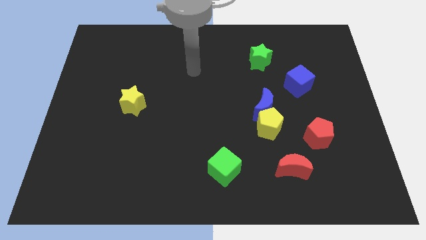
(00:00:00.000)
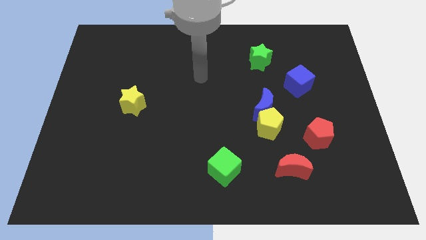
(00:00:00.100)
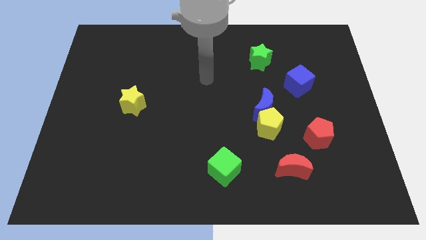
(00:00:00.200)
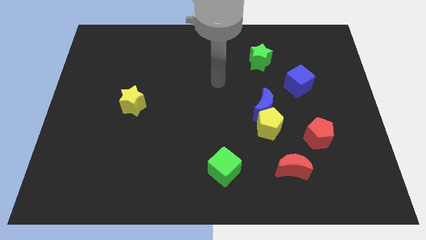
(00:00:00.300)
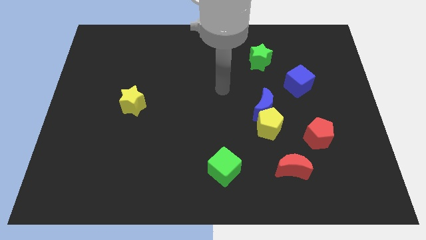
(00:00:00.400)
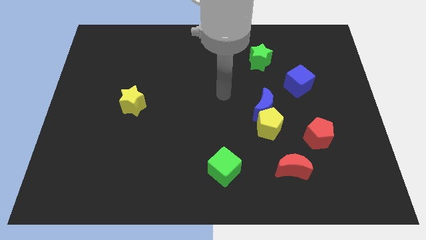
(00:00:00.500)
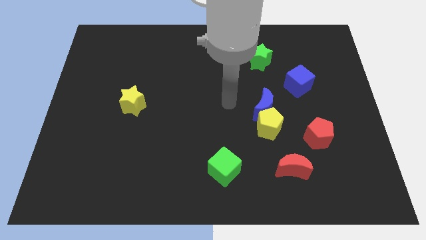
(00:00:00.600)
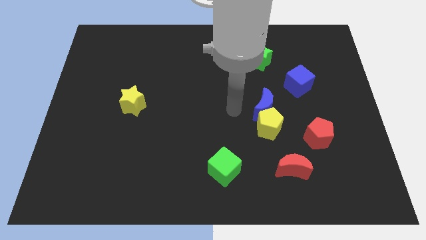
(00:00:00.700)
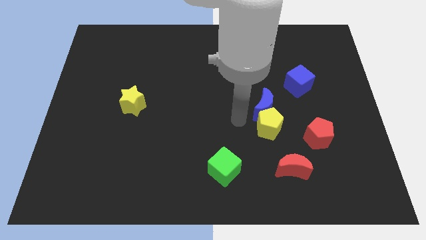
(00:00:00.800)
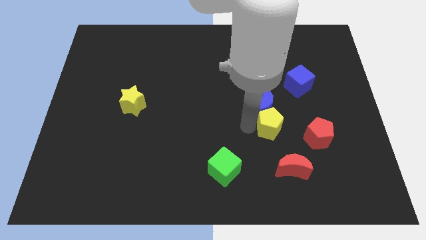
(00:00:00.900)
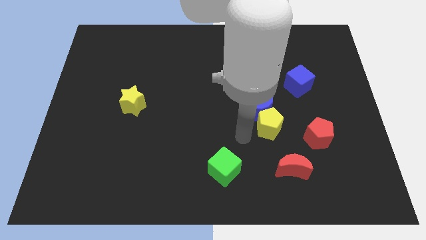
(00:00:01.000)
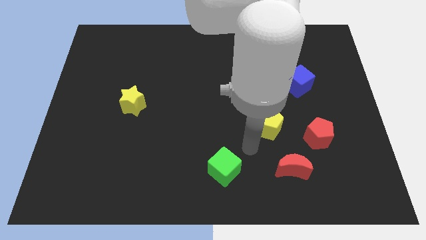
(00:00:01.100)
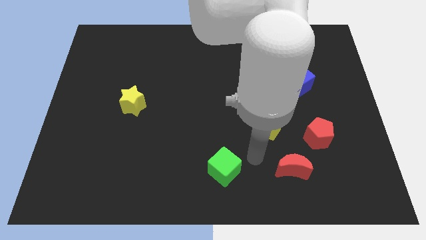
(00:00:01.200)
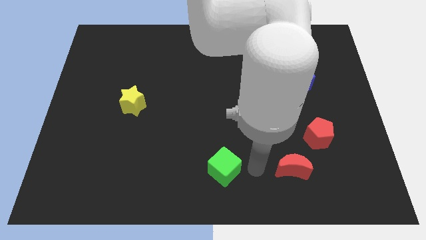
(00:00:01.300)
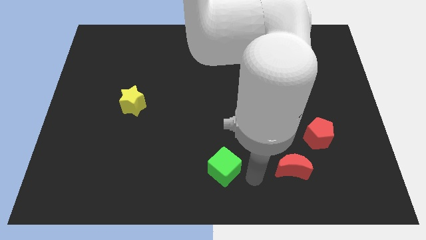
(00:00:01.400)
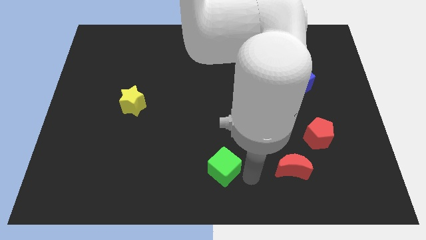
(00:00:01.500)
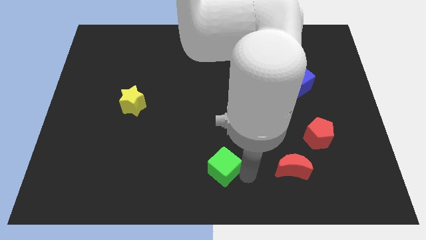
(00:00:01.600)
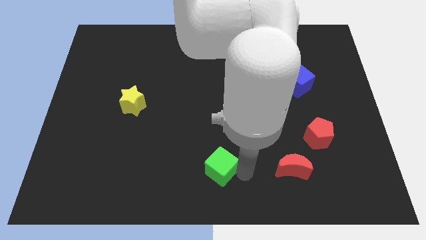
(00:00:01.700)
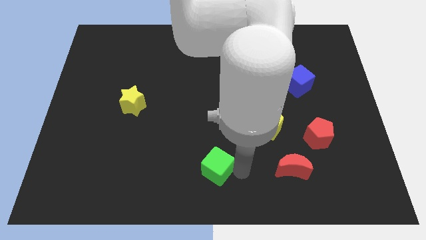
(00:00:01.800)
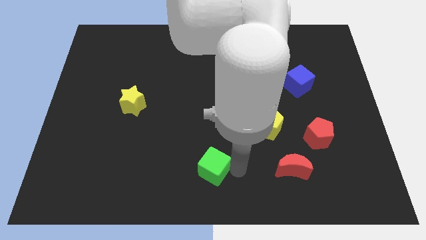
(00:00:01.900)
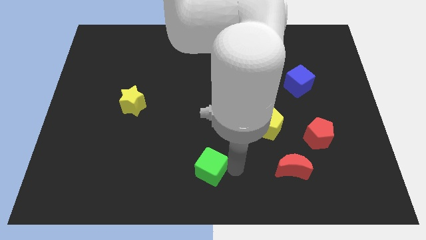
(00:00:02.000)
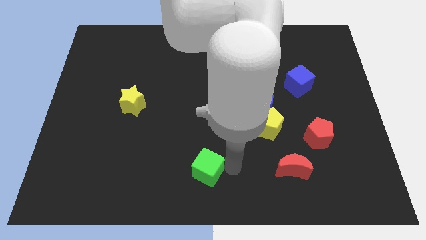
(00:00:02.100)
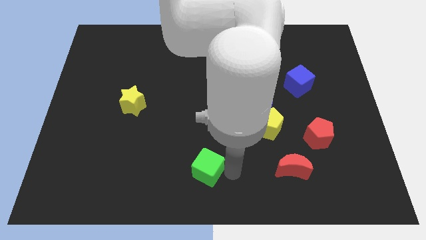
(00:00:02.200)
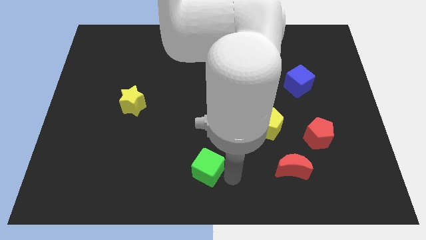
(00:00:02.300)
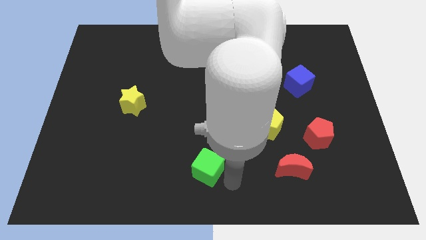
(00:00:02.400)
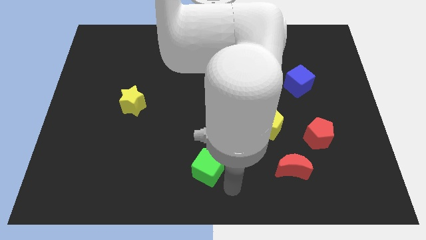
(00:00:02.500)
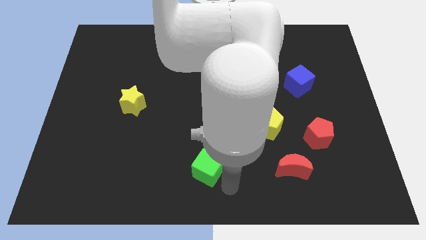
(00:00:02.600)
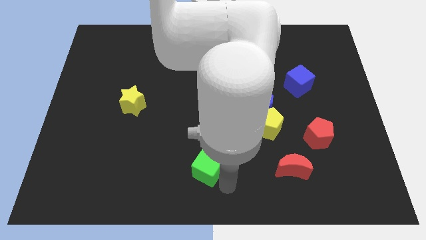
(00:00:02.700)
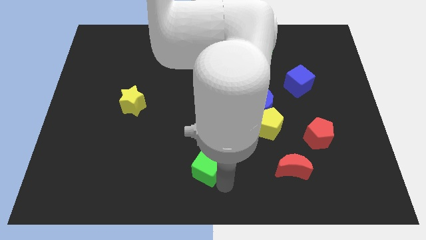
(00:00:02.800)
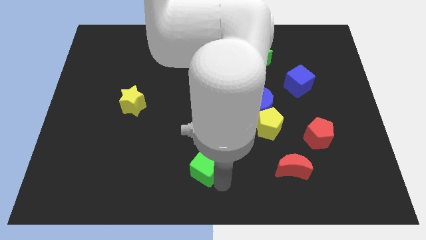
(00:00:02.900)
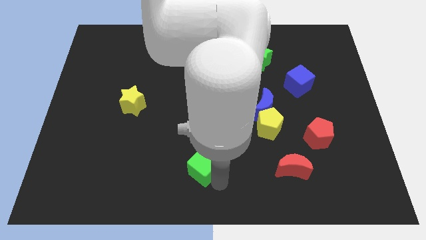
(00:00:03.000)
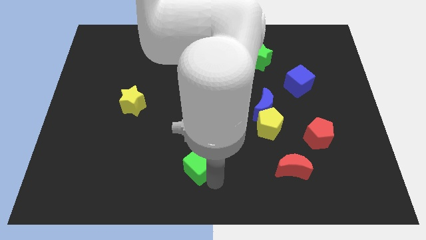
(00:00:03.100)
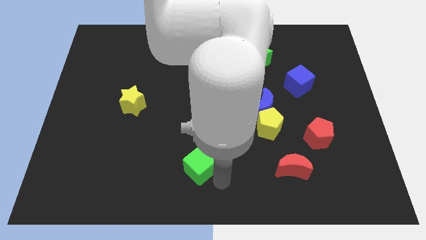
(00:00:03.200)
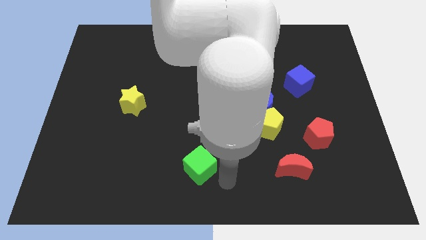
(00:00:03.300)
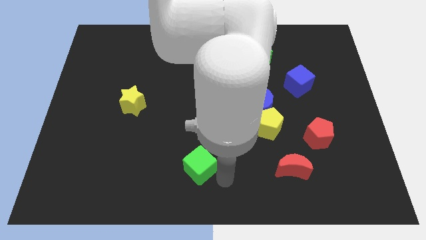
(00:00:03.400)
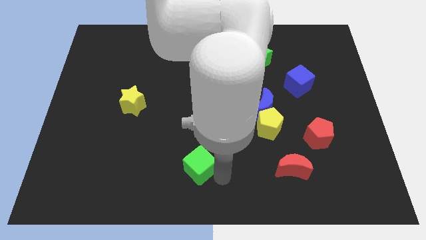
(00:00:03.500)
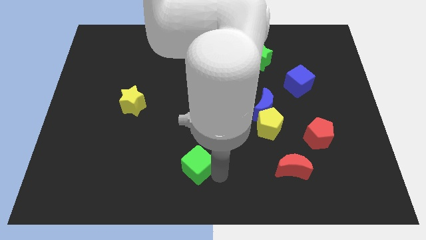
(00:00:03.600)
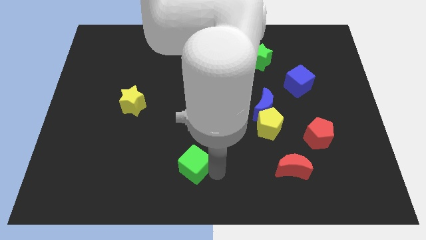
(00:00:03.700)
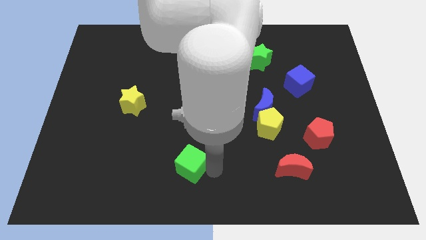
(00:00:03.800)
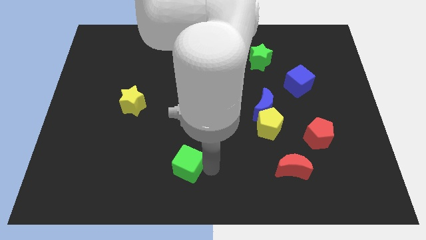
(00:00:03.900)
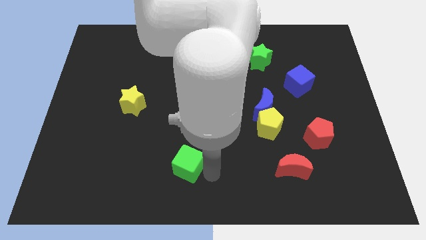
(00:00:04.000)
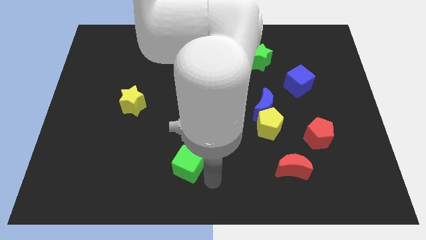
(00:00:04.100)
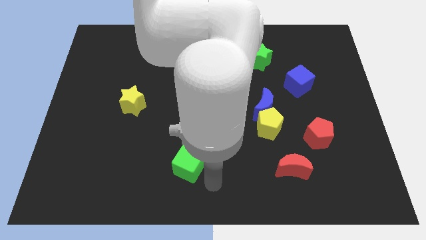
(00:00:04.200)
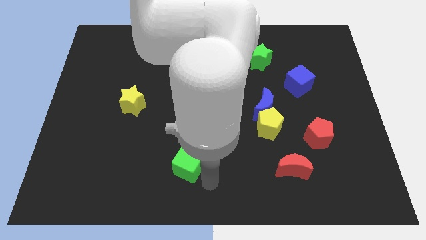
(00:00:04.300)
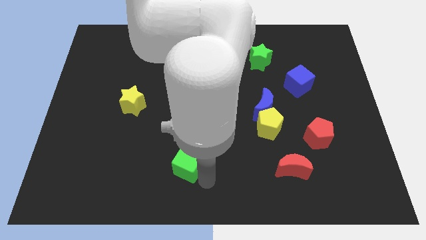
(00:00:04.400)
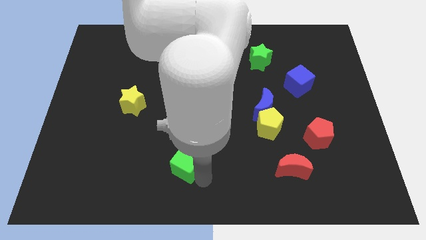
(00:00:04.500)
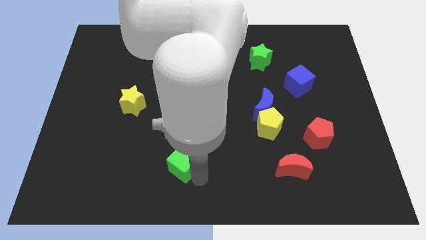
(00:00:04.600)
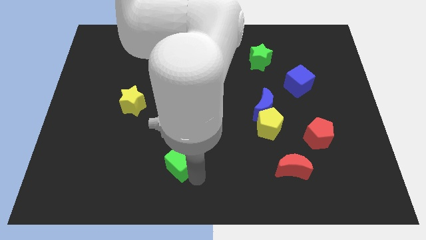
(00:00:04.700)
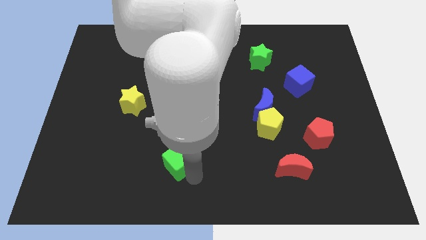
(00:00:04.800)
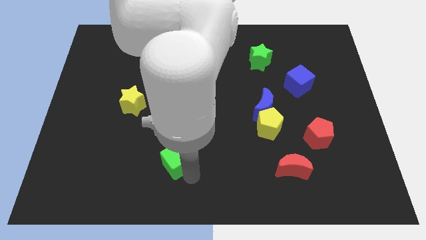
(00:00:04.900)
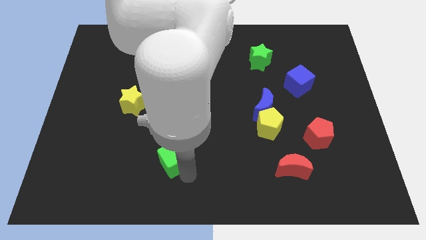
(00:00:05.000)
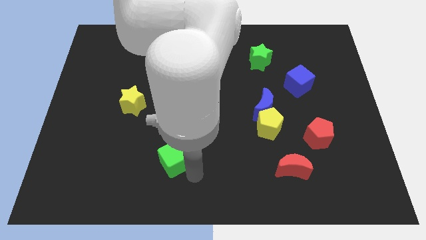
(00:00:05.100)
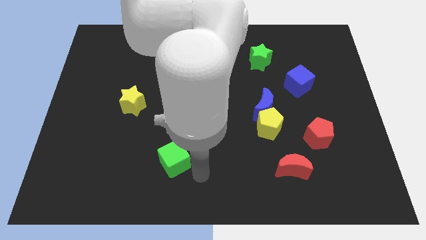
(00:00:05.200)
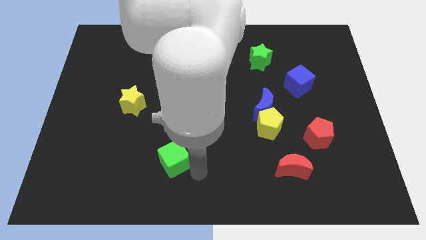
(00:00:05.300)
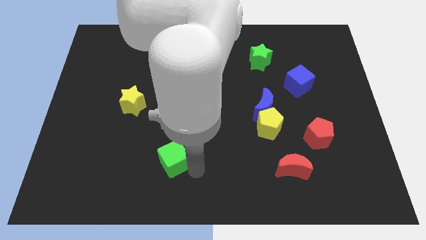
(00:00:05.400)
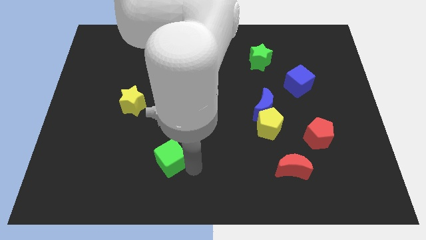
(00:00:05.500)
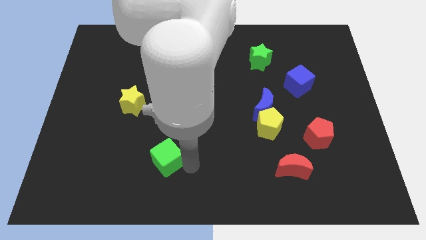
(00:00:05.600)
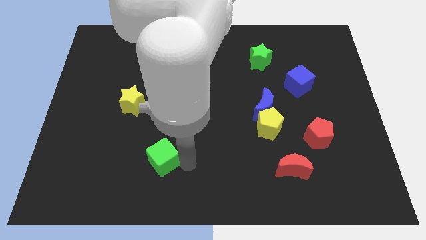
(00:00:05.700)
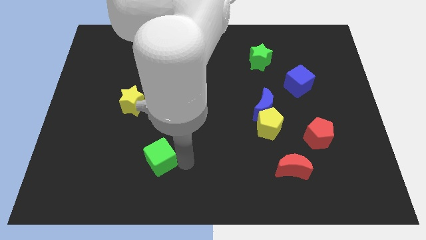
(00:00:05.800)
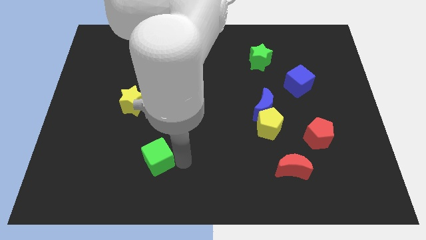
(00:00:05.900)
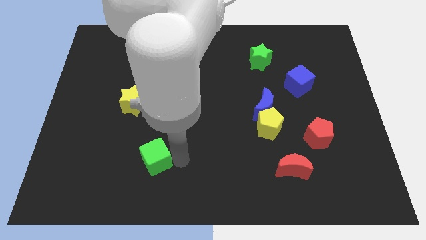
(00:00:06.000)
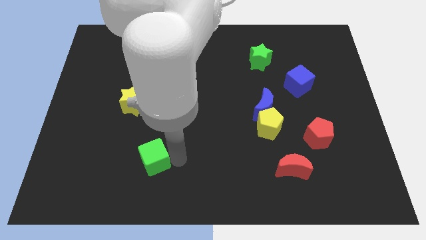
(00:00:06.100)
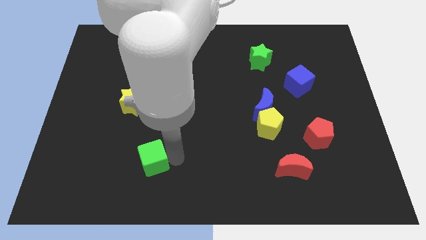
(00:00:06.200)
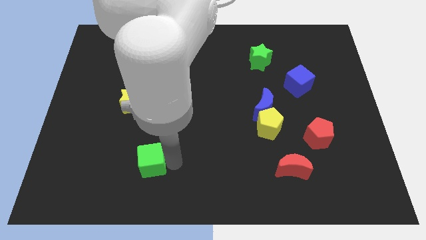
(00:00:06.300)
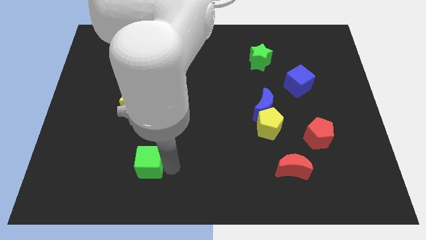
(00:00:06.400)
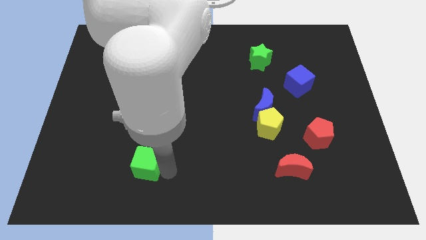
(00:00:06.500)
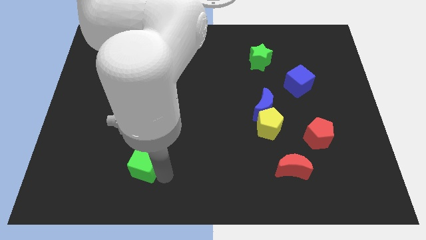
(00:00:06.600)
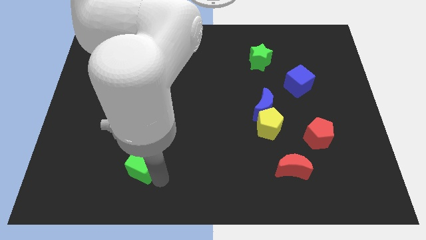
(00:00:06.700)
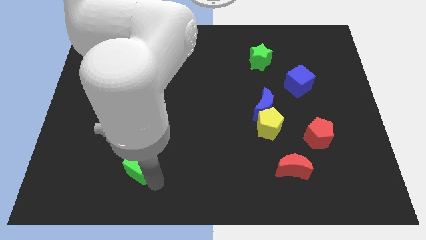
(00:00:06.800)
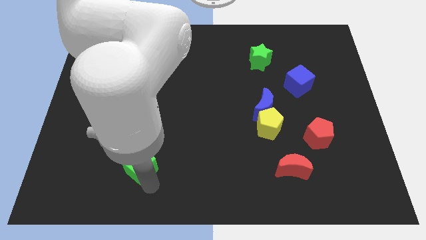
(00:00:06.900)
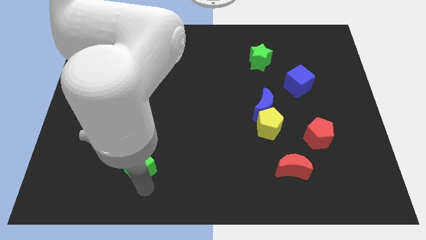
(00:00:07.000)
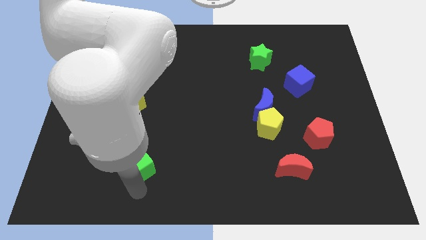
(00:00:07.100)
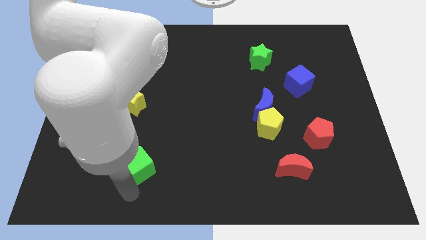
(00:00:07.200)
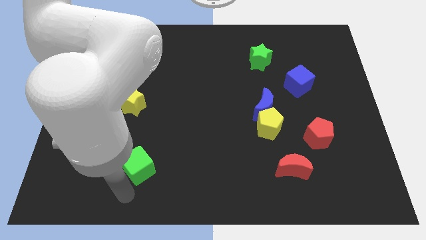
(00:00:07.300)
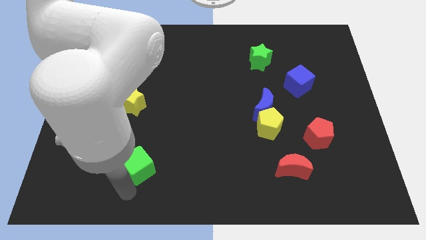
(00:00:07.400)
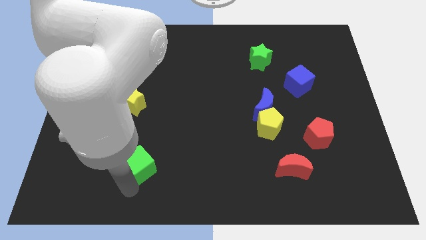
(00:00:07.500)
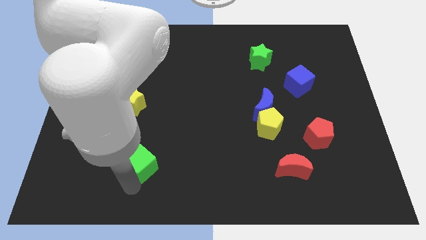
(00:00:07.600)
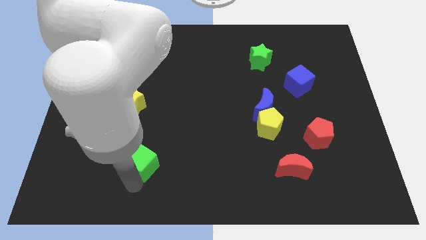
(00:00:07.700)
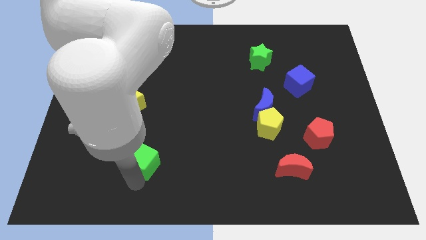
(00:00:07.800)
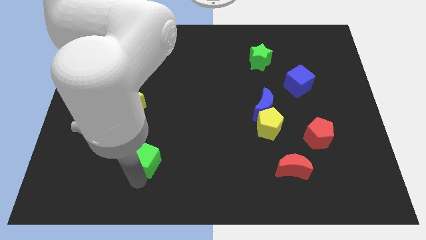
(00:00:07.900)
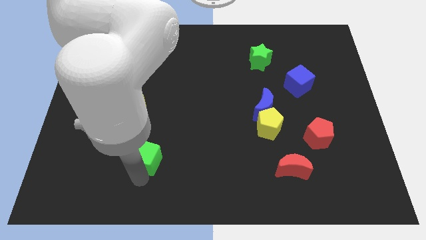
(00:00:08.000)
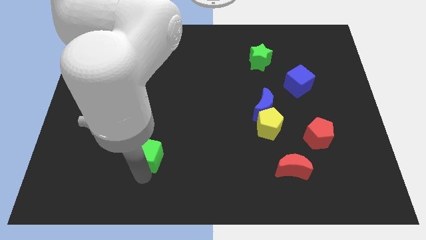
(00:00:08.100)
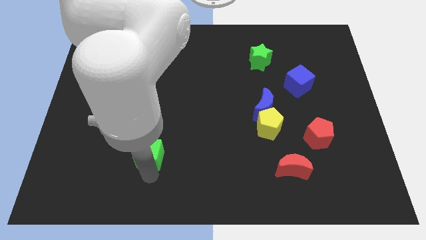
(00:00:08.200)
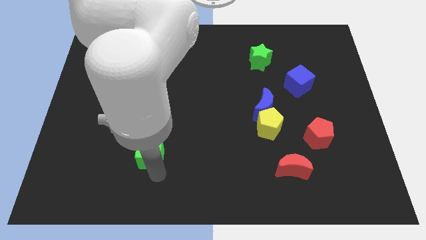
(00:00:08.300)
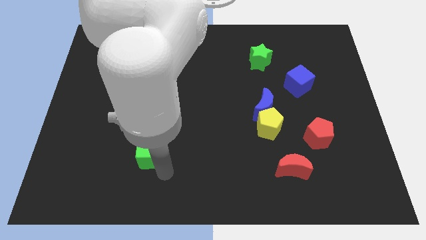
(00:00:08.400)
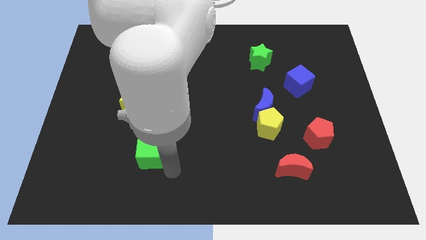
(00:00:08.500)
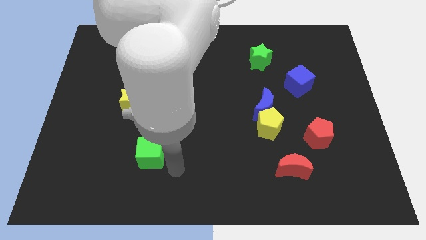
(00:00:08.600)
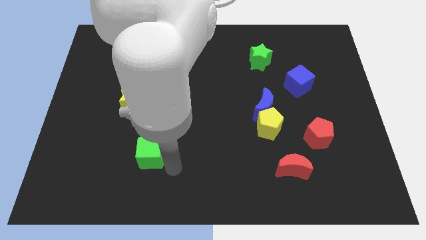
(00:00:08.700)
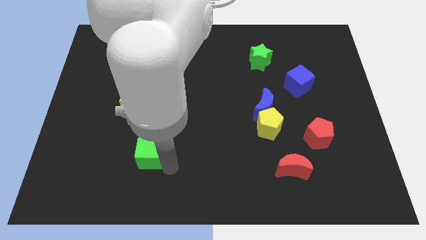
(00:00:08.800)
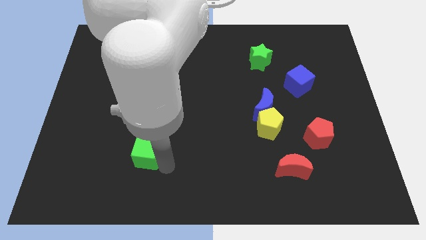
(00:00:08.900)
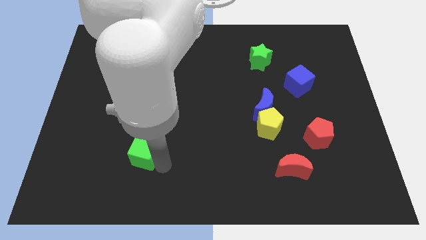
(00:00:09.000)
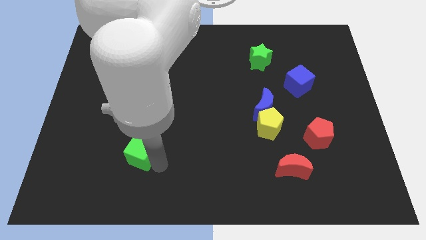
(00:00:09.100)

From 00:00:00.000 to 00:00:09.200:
slide the green cube to the bottom of the yellow star
